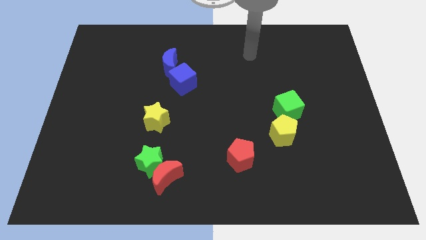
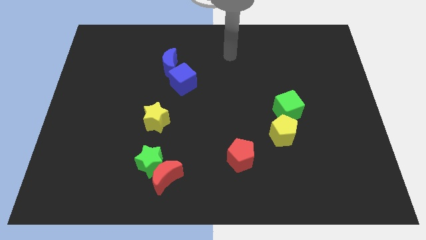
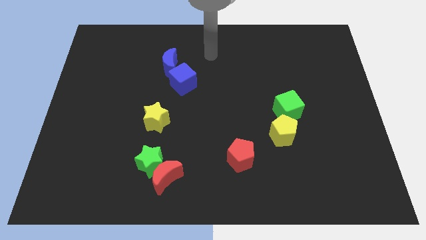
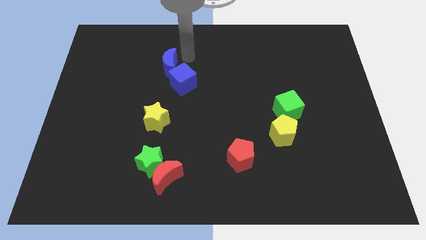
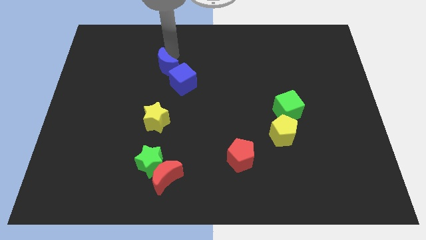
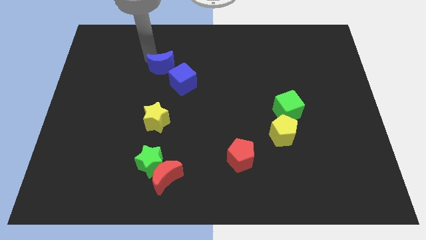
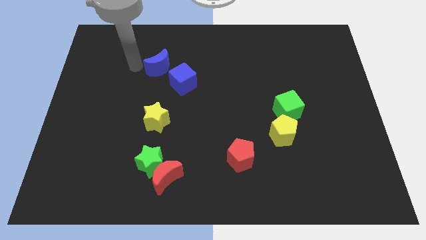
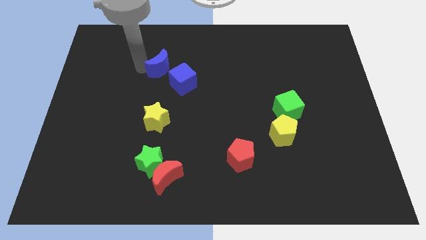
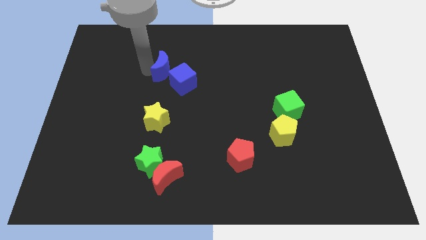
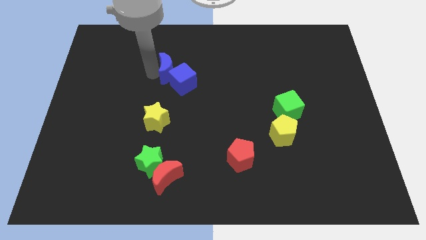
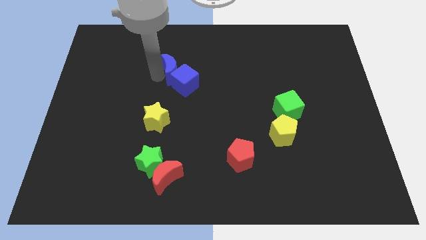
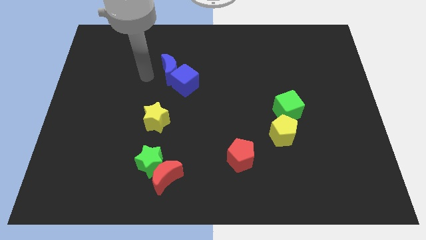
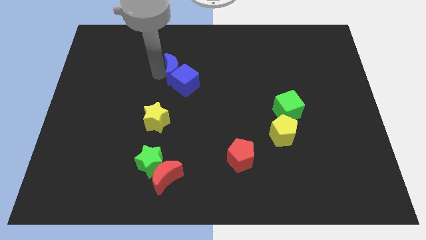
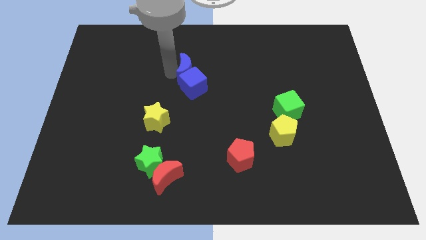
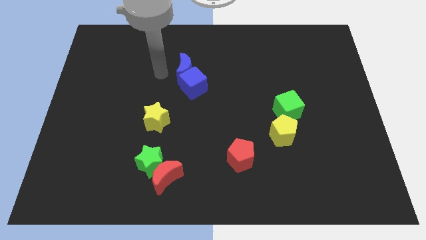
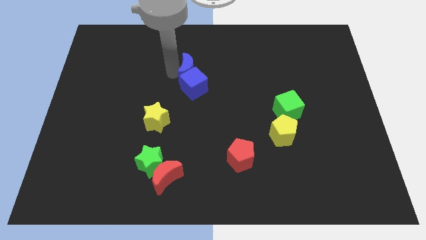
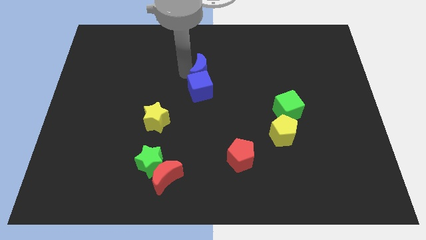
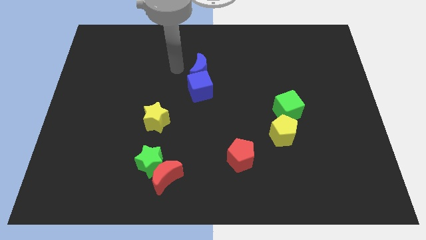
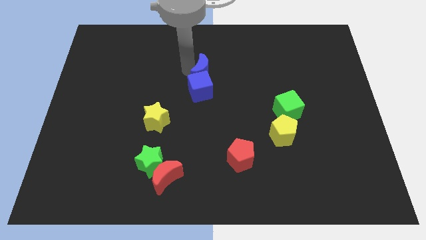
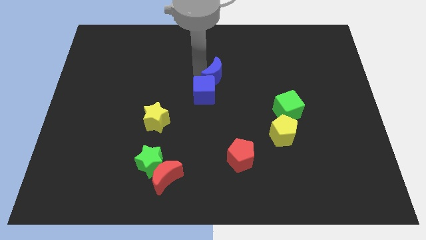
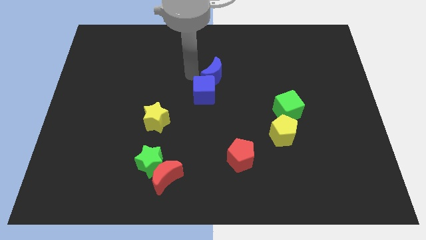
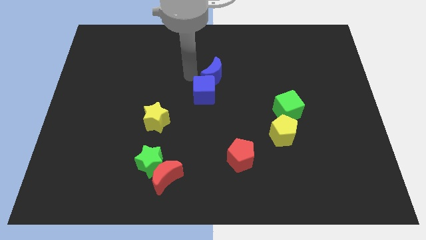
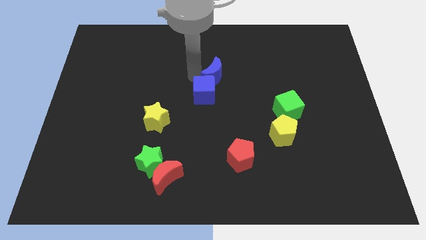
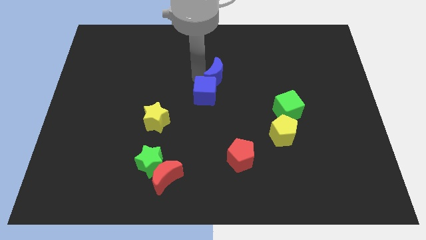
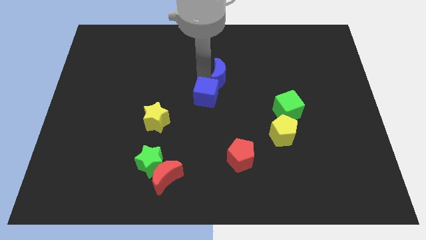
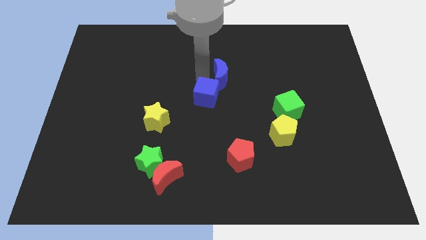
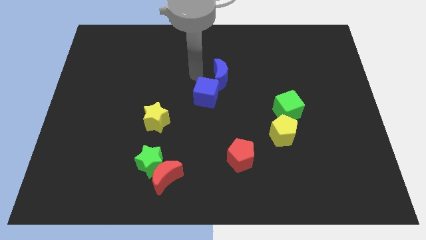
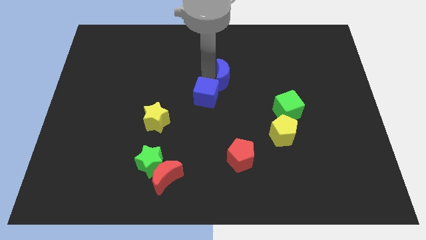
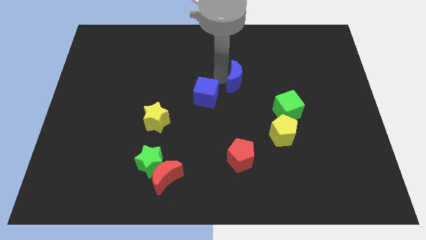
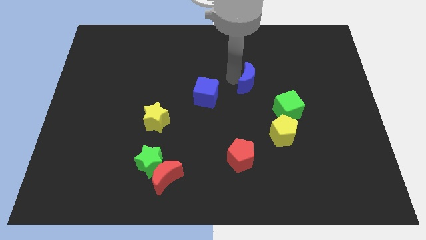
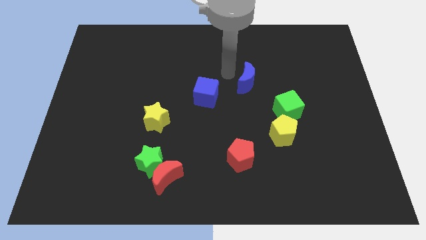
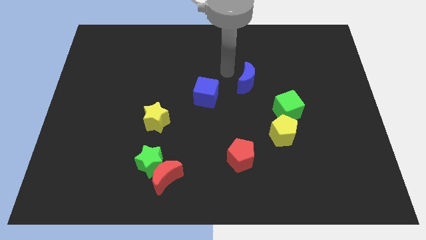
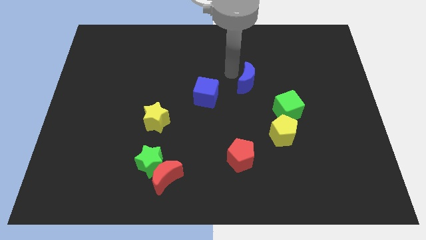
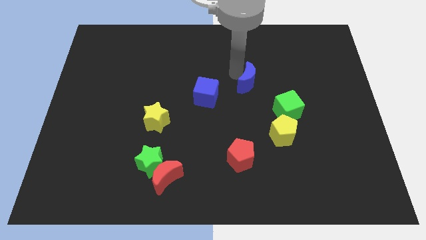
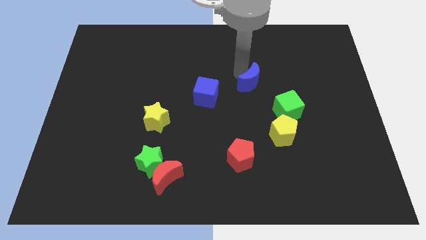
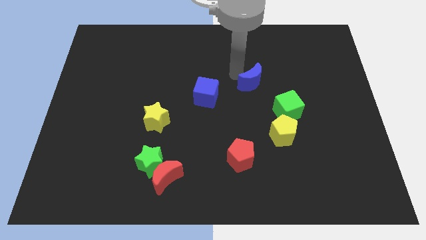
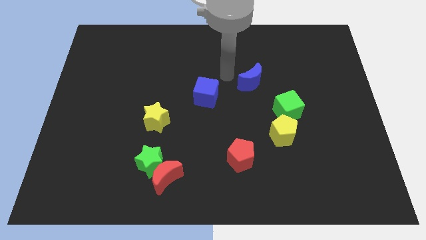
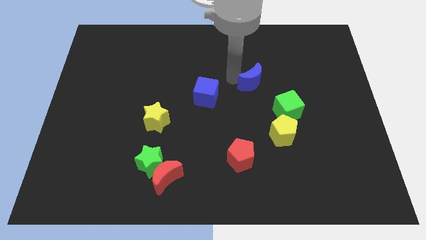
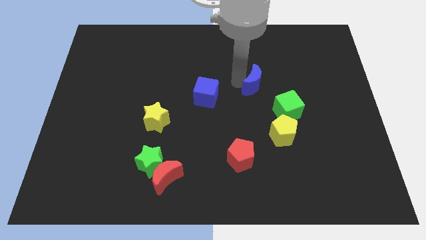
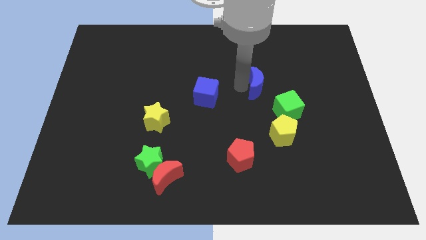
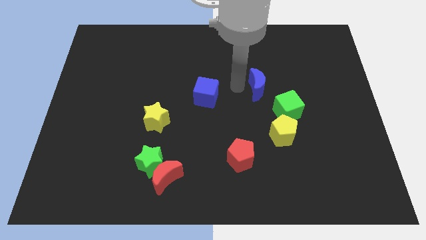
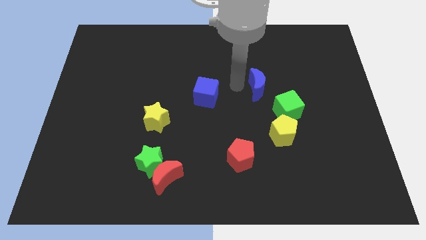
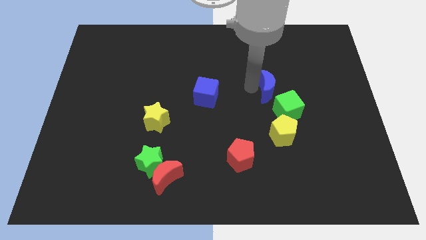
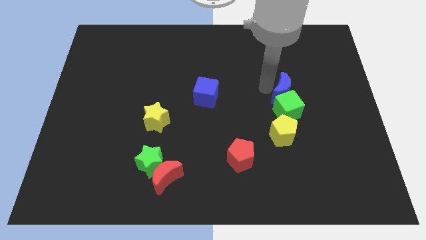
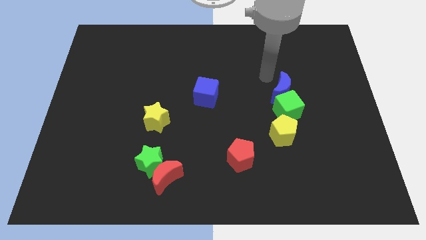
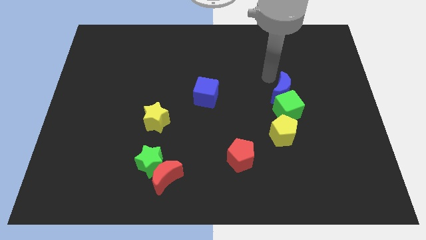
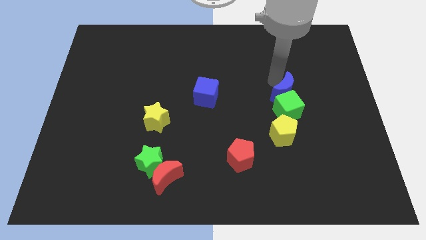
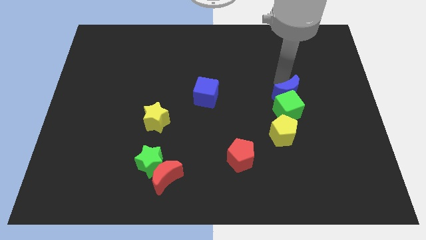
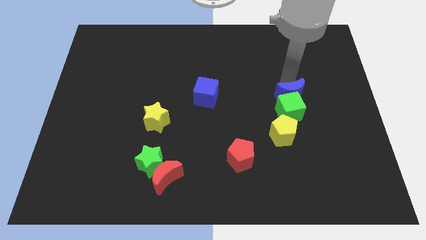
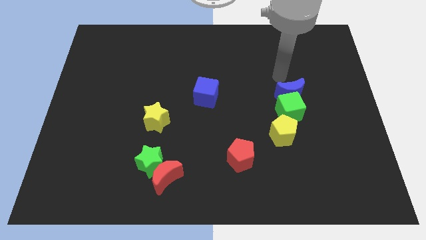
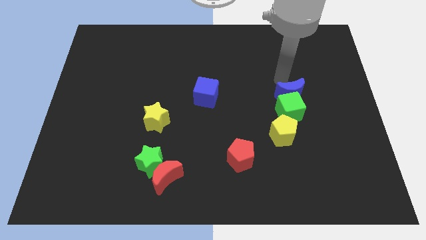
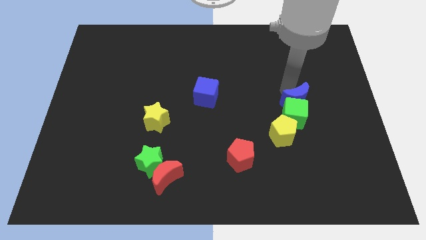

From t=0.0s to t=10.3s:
slide the blue moon diagonally up and to the right of the yellow pentagon

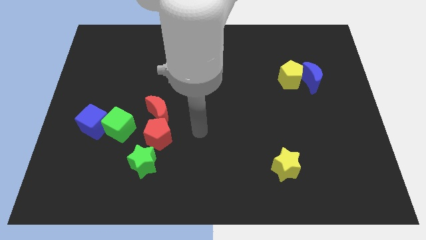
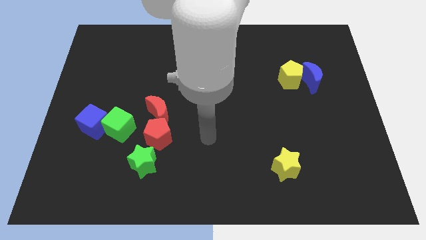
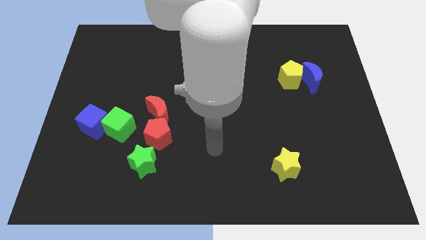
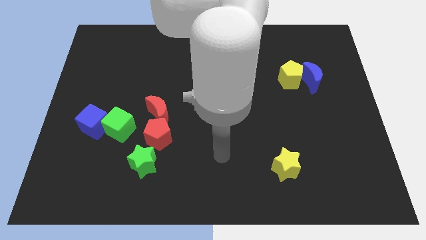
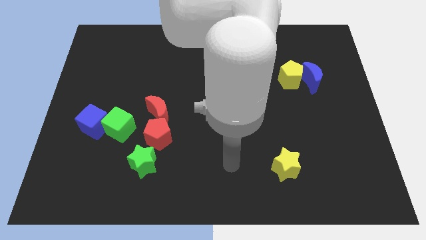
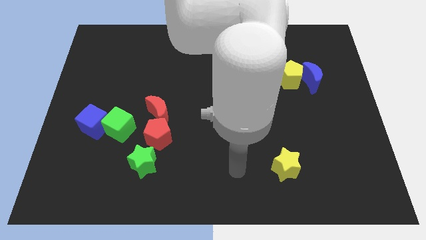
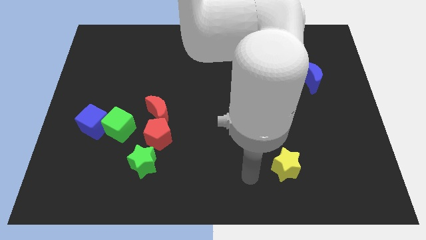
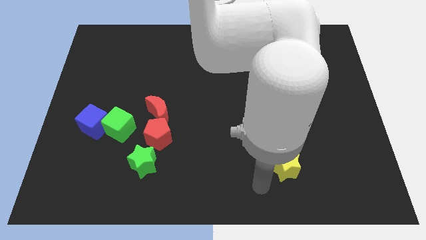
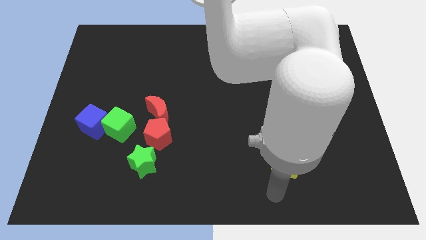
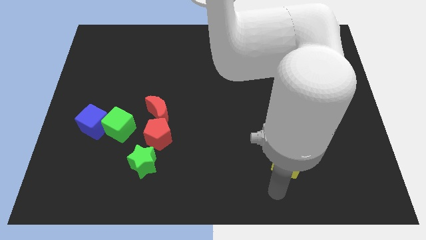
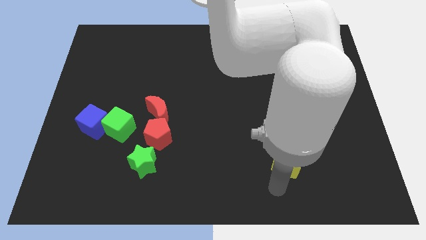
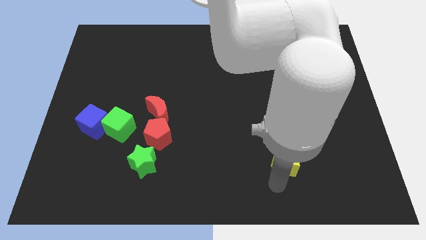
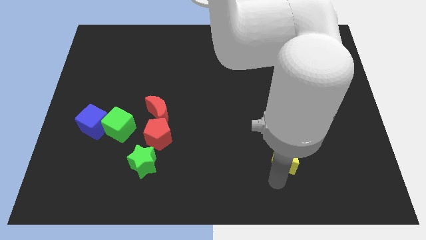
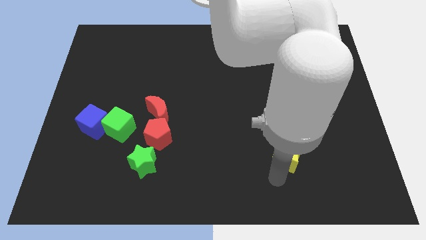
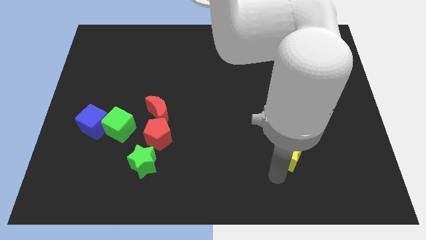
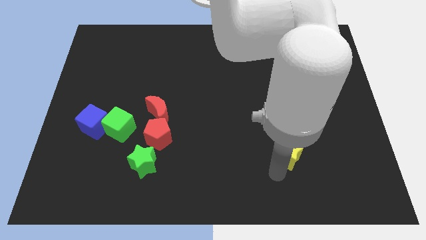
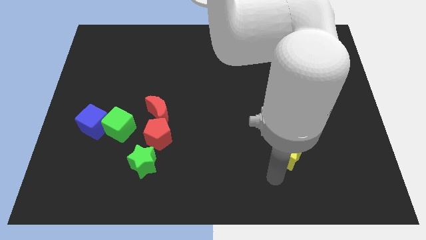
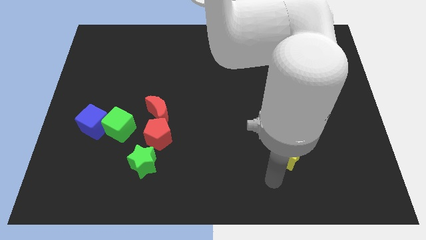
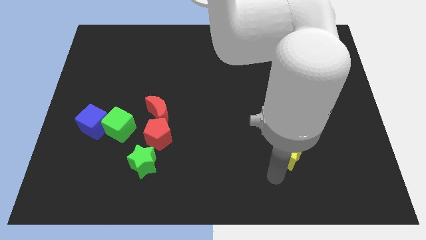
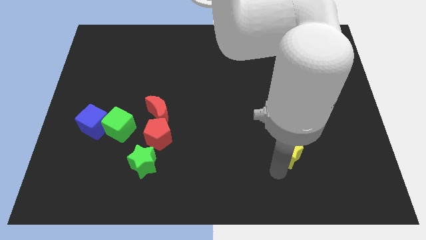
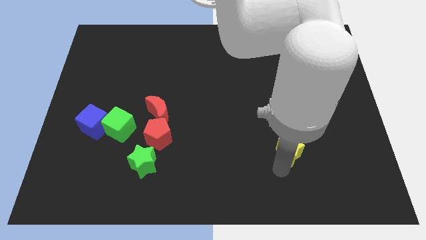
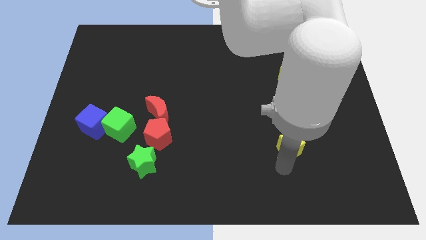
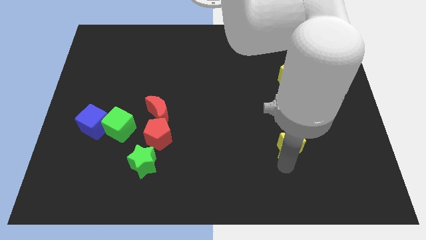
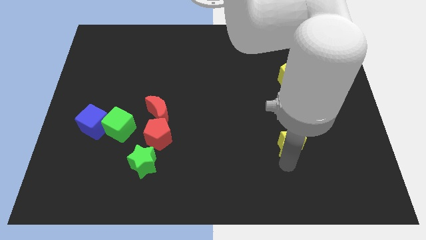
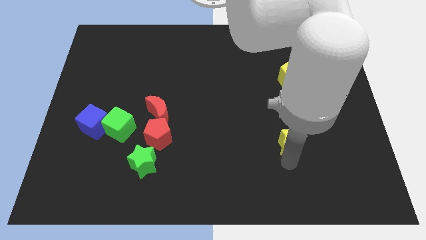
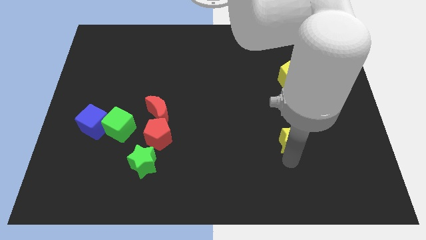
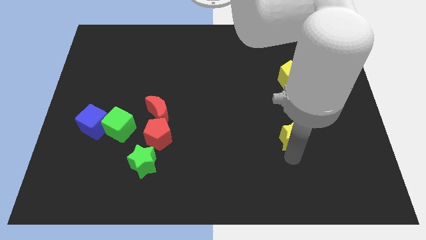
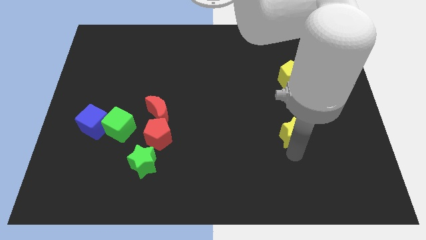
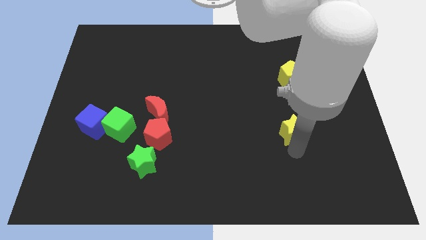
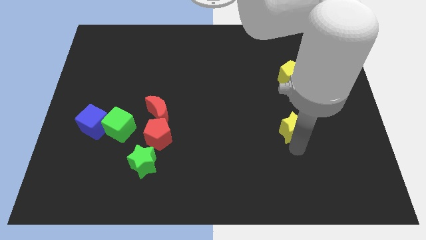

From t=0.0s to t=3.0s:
move the yellow star to the bottom side of the yellow pentagon
